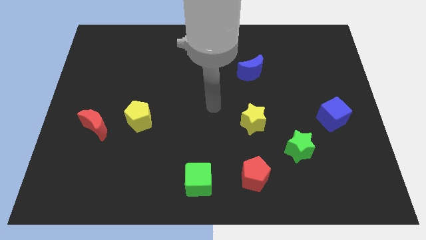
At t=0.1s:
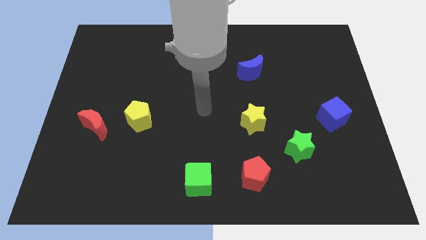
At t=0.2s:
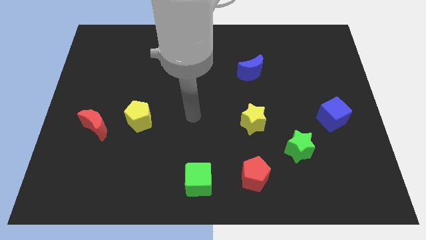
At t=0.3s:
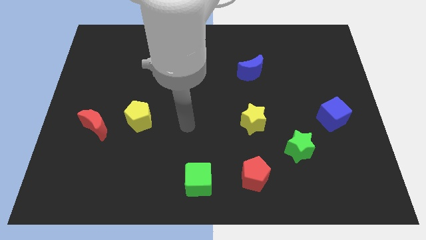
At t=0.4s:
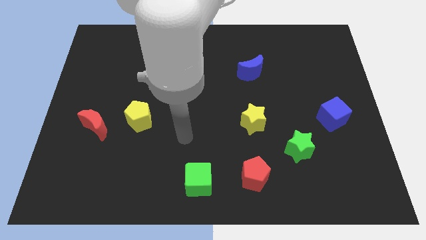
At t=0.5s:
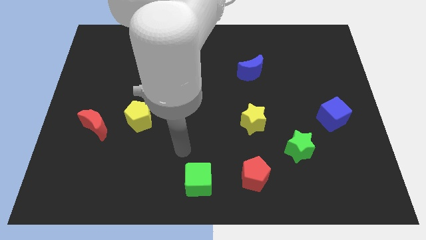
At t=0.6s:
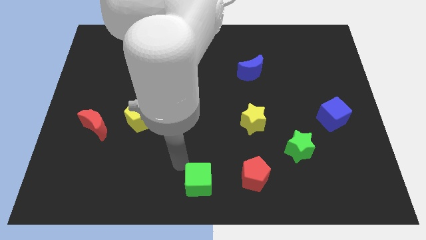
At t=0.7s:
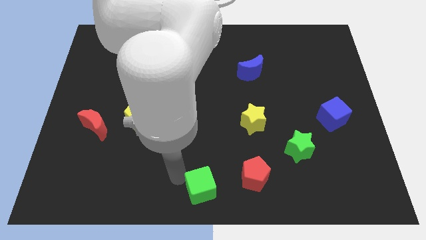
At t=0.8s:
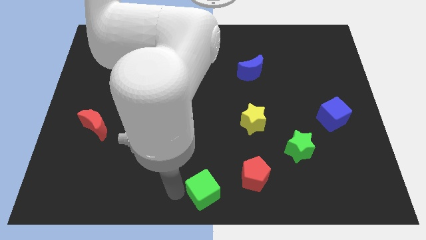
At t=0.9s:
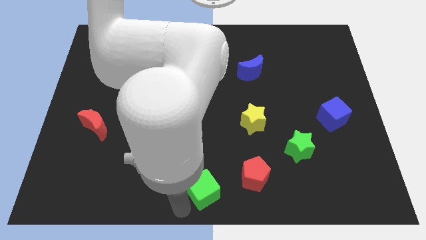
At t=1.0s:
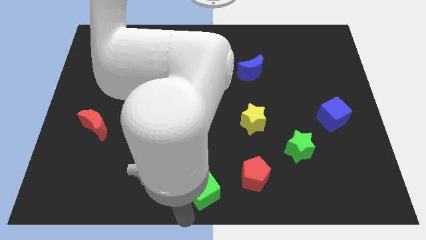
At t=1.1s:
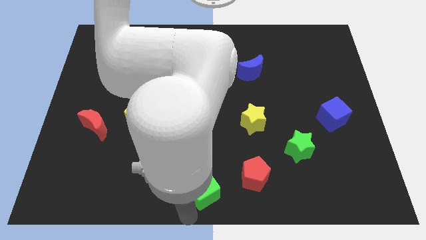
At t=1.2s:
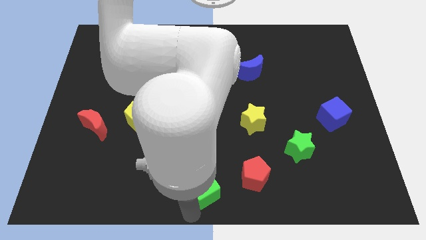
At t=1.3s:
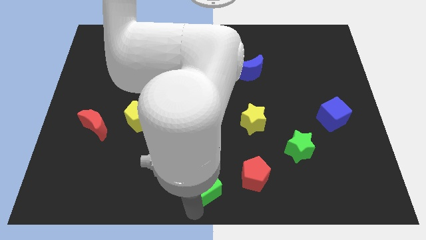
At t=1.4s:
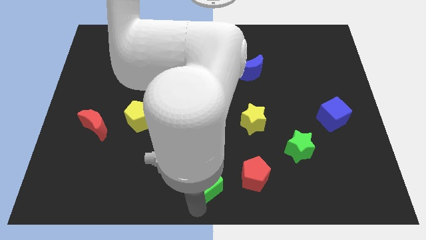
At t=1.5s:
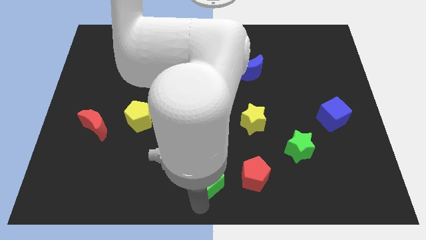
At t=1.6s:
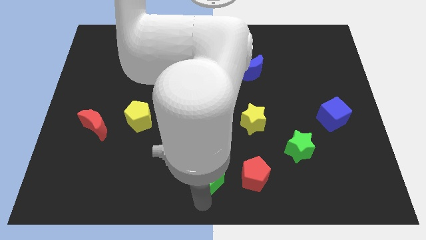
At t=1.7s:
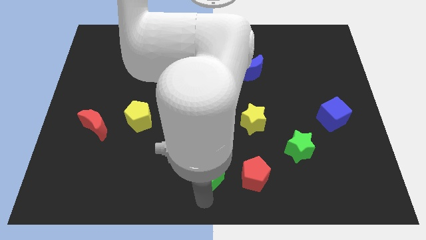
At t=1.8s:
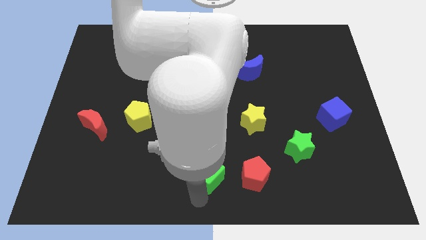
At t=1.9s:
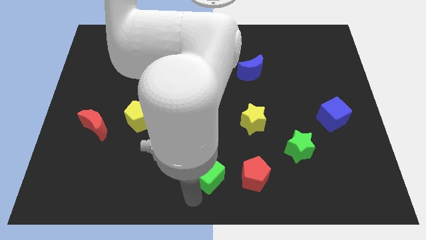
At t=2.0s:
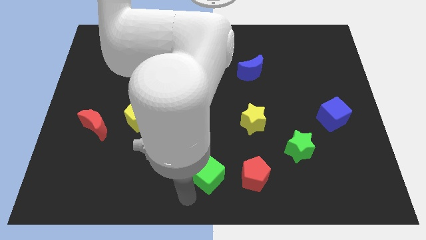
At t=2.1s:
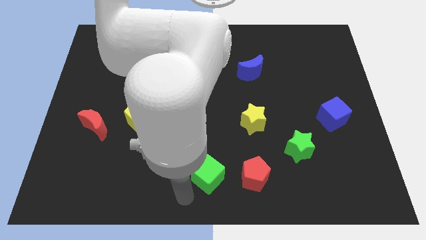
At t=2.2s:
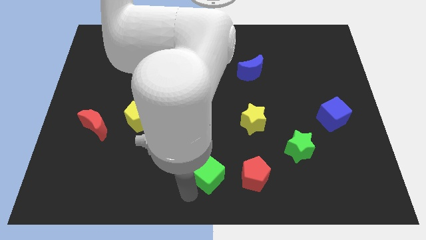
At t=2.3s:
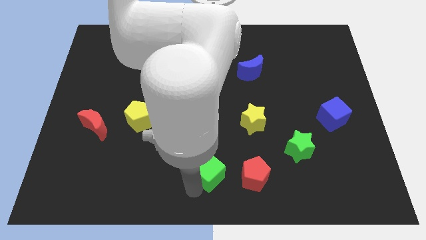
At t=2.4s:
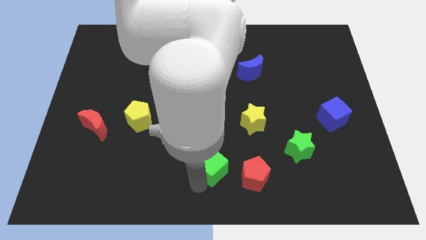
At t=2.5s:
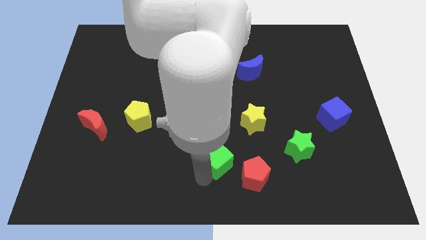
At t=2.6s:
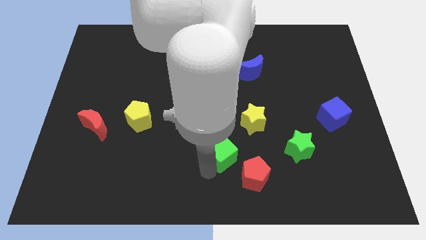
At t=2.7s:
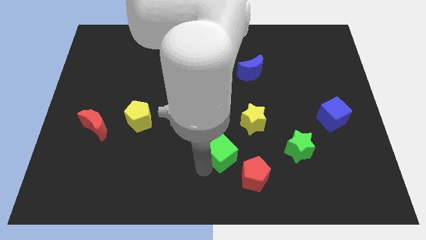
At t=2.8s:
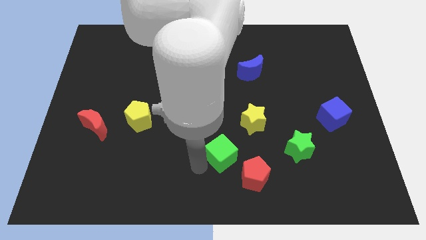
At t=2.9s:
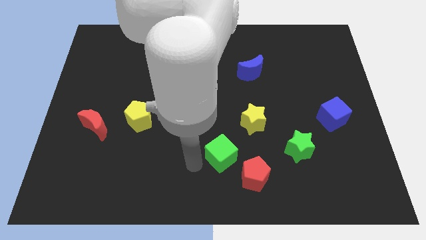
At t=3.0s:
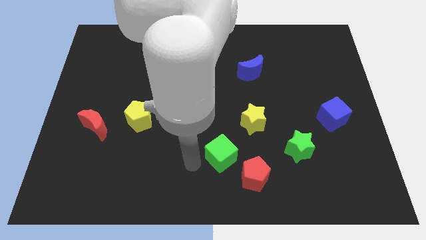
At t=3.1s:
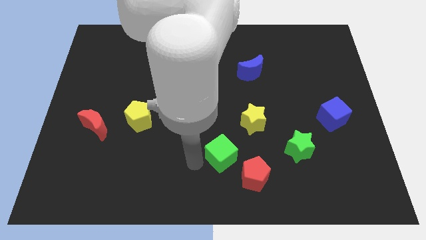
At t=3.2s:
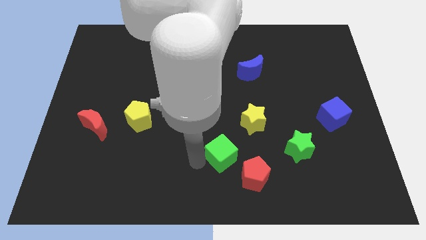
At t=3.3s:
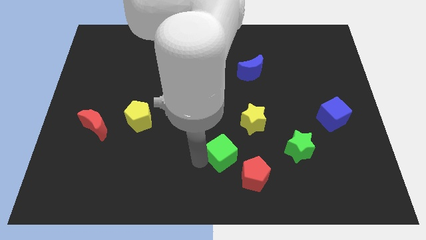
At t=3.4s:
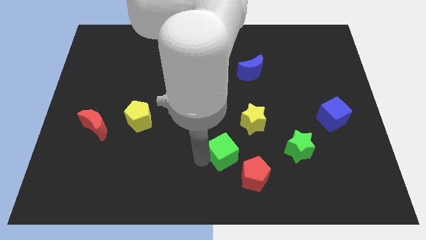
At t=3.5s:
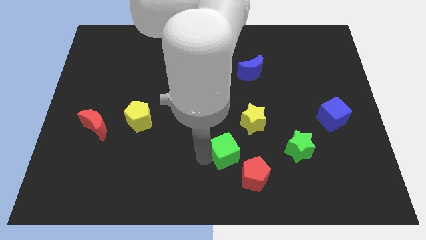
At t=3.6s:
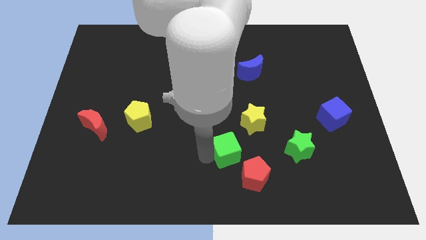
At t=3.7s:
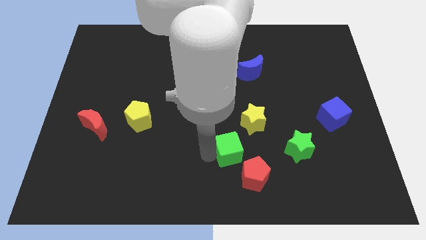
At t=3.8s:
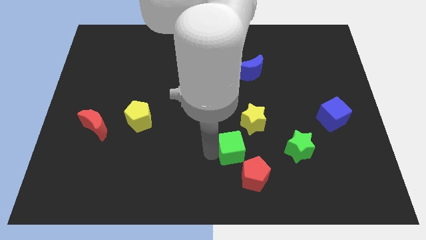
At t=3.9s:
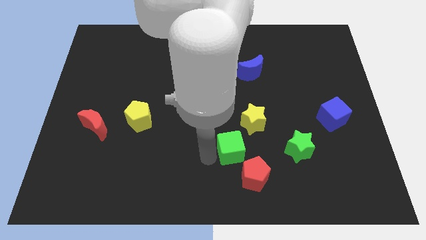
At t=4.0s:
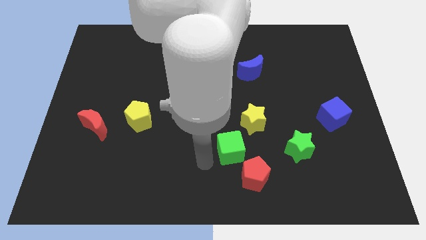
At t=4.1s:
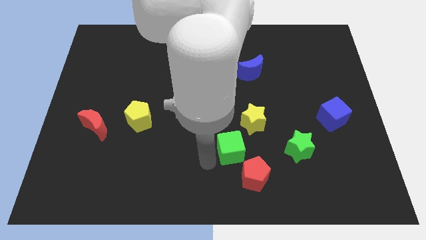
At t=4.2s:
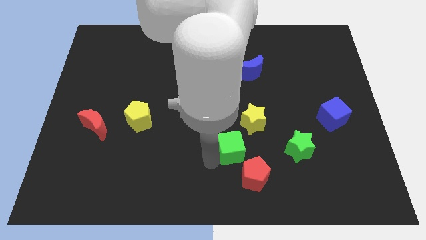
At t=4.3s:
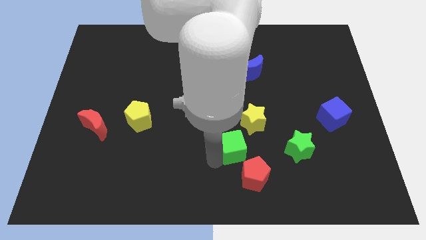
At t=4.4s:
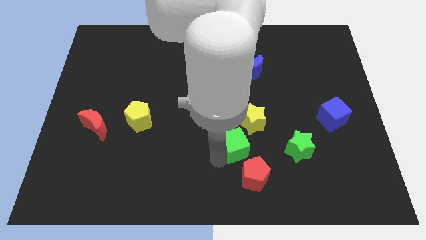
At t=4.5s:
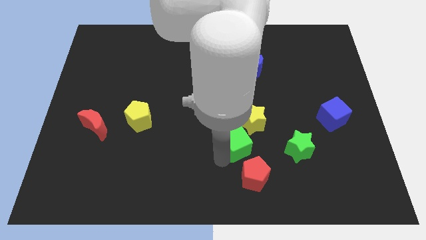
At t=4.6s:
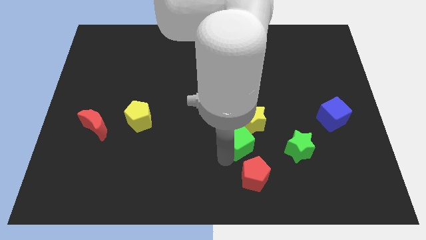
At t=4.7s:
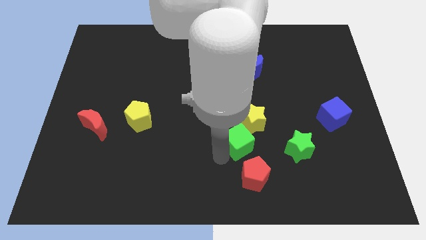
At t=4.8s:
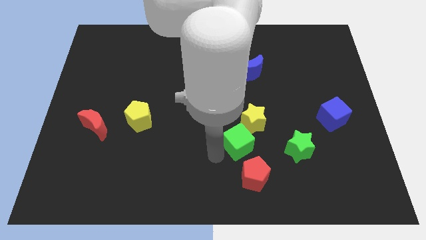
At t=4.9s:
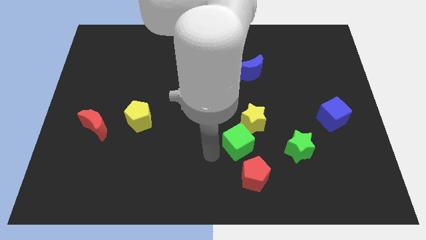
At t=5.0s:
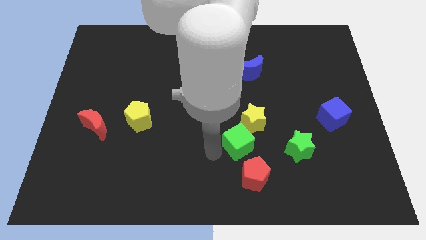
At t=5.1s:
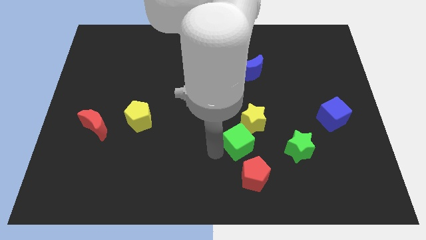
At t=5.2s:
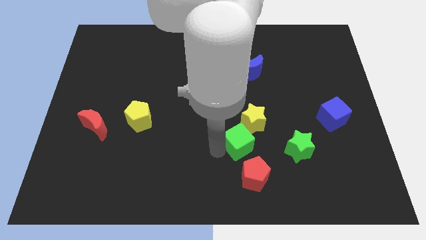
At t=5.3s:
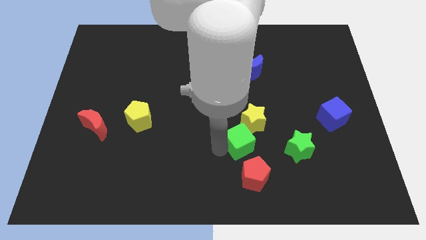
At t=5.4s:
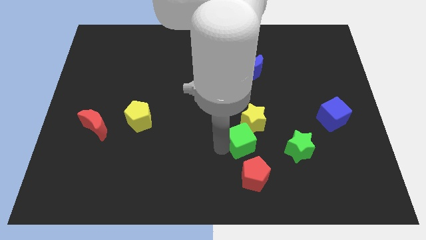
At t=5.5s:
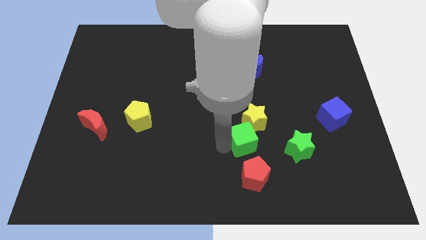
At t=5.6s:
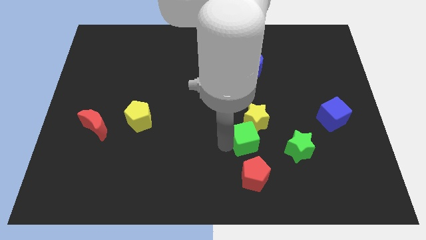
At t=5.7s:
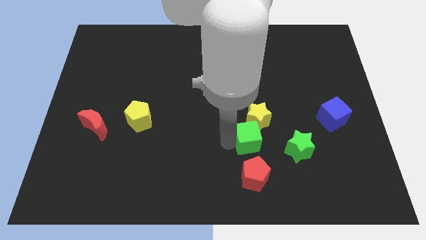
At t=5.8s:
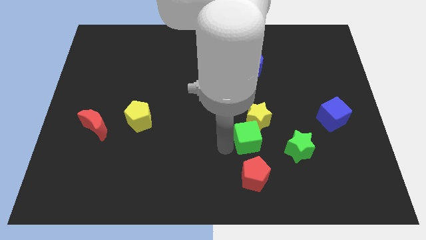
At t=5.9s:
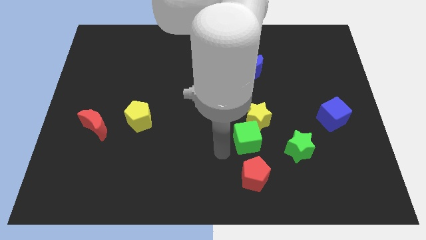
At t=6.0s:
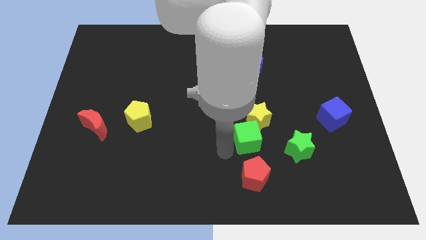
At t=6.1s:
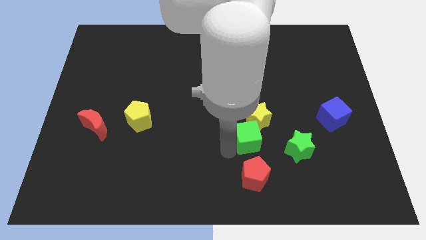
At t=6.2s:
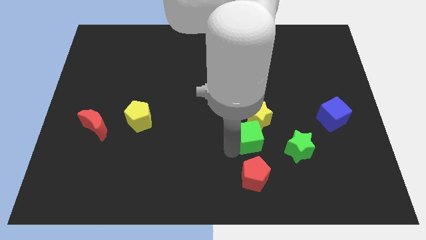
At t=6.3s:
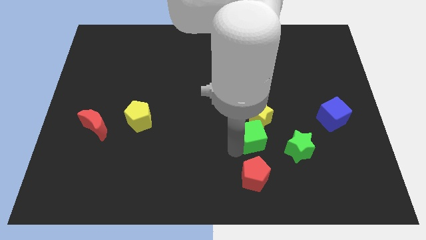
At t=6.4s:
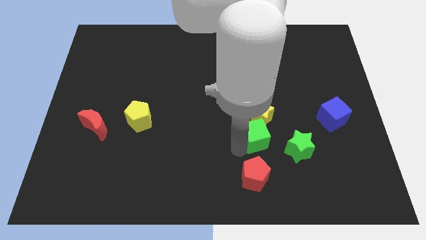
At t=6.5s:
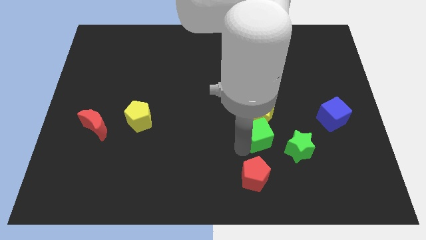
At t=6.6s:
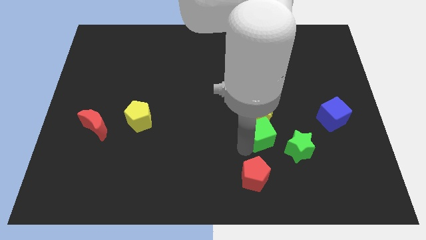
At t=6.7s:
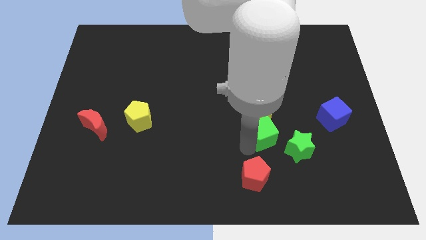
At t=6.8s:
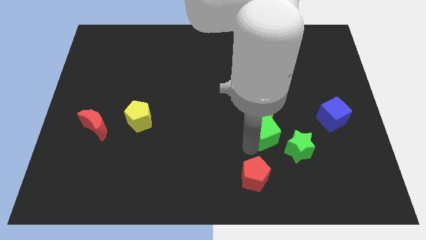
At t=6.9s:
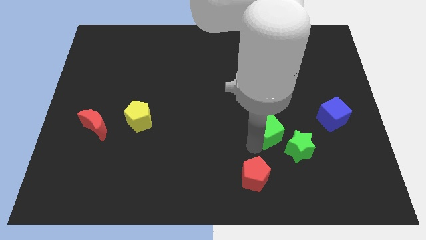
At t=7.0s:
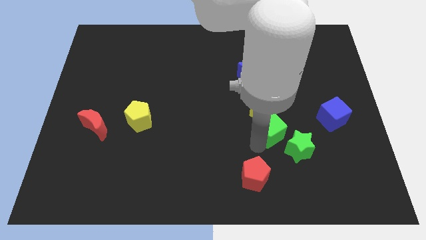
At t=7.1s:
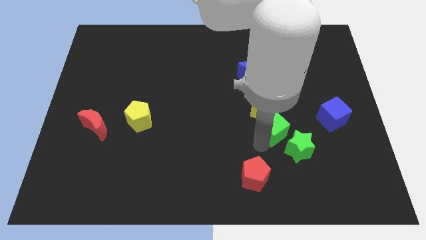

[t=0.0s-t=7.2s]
slide the green cube diagonally up and to the right

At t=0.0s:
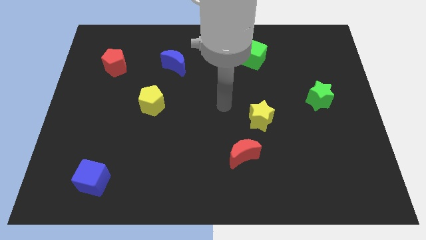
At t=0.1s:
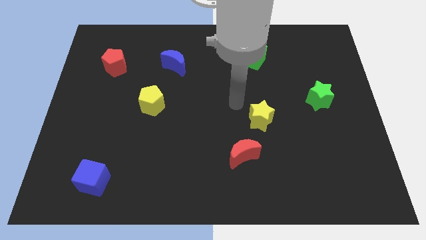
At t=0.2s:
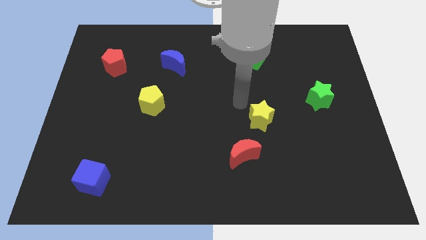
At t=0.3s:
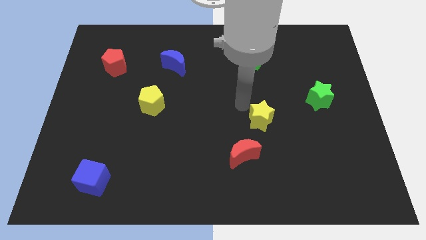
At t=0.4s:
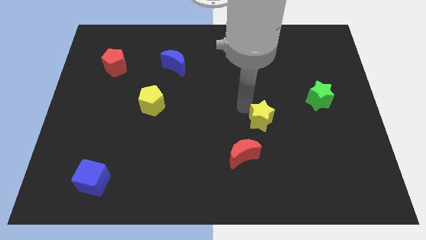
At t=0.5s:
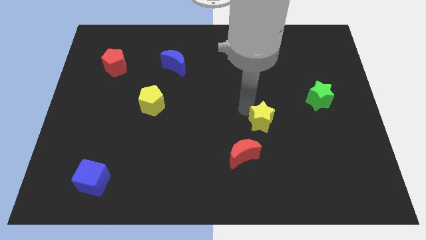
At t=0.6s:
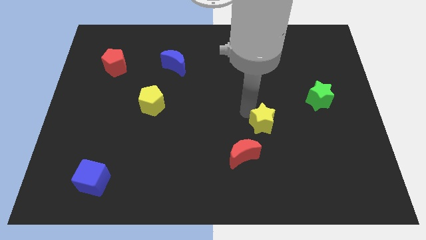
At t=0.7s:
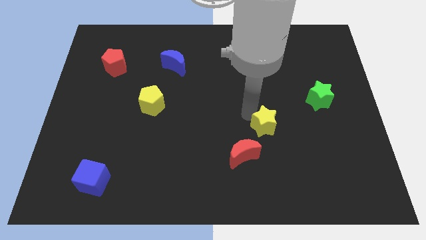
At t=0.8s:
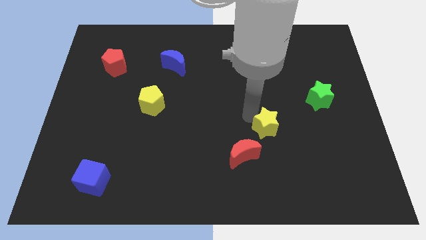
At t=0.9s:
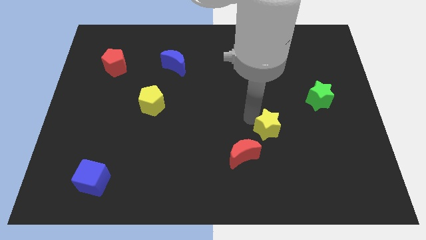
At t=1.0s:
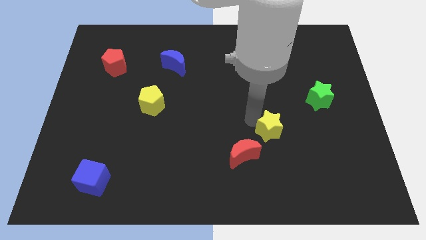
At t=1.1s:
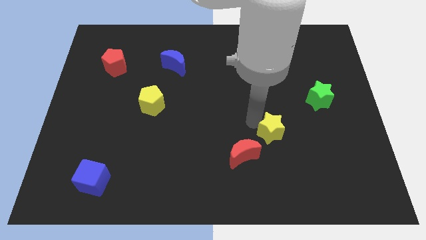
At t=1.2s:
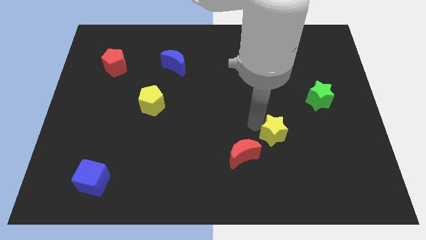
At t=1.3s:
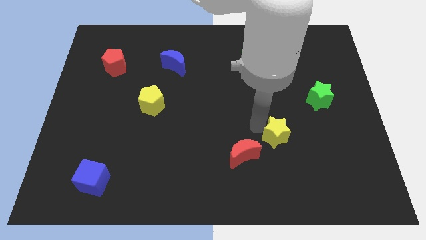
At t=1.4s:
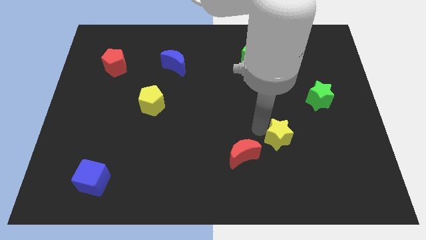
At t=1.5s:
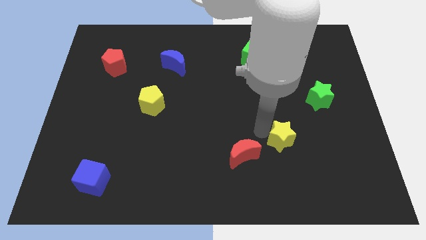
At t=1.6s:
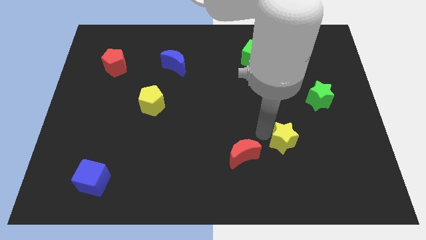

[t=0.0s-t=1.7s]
move the yellow star down and to the right diagonally a little
